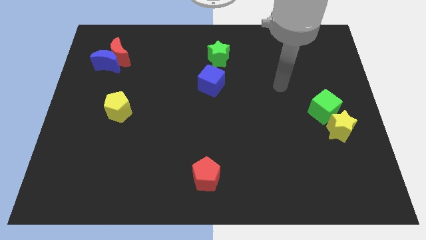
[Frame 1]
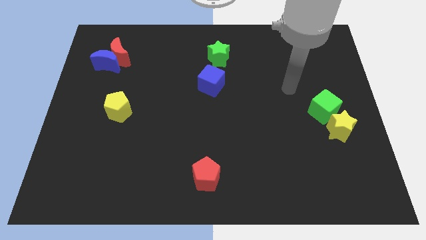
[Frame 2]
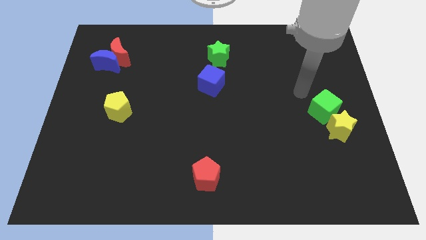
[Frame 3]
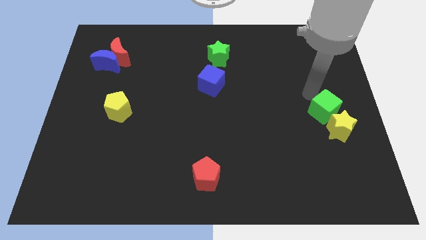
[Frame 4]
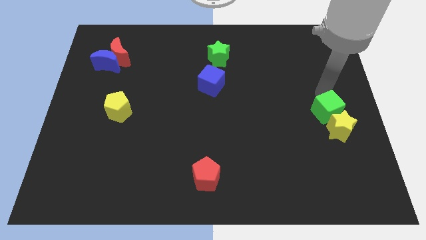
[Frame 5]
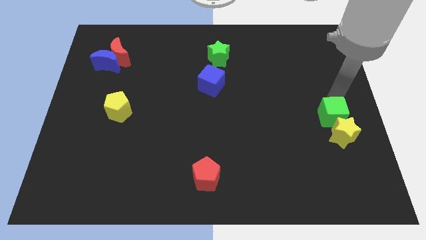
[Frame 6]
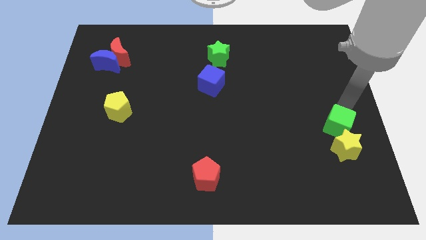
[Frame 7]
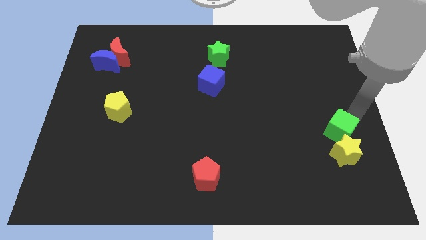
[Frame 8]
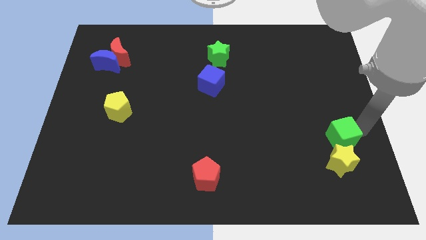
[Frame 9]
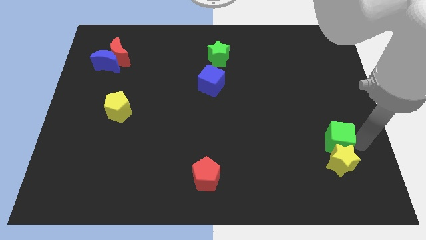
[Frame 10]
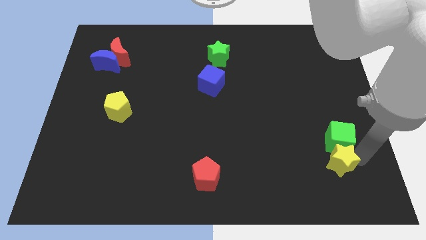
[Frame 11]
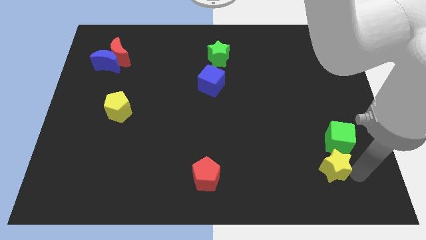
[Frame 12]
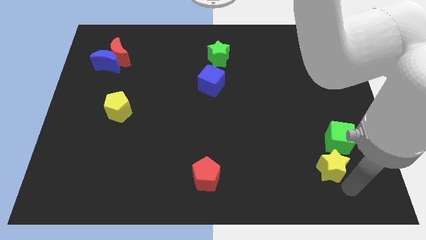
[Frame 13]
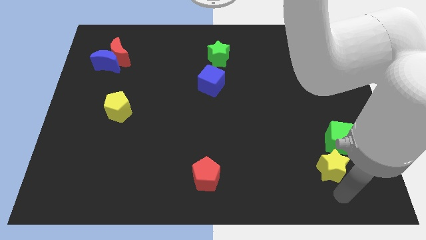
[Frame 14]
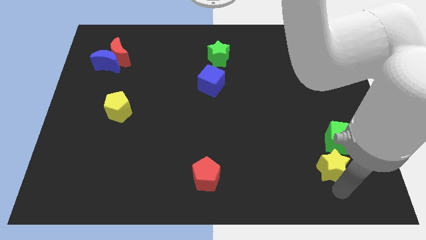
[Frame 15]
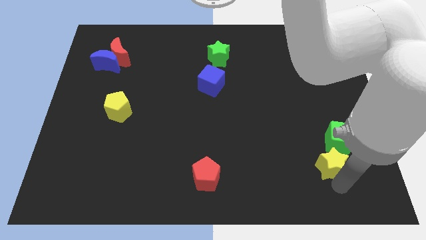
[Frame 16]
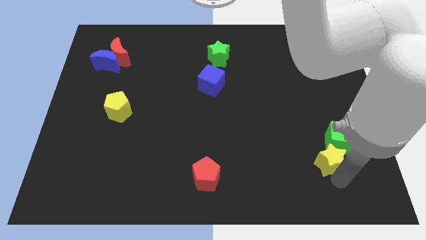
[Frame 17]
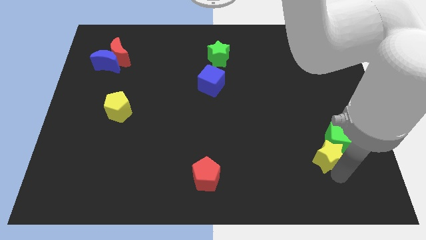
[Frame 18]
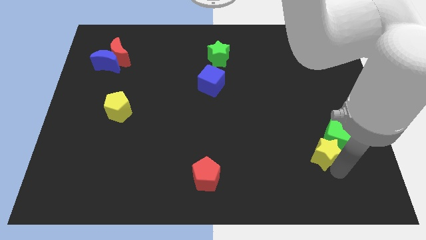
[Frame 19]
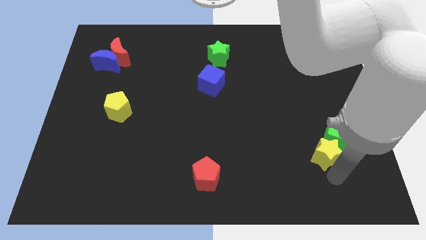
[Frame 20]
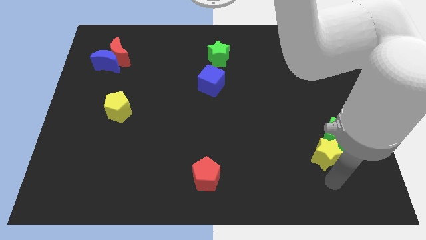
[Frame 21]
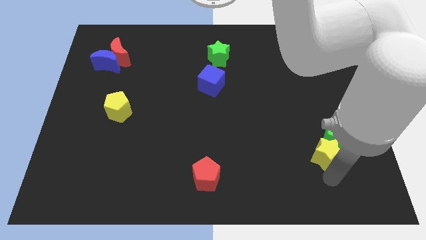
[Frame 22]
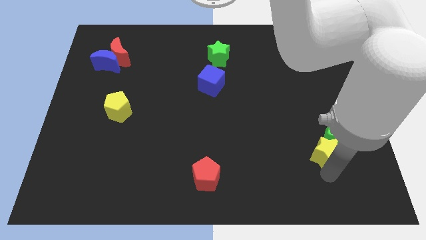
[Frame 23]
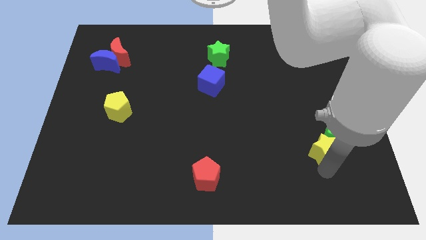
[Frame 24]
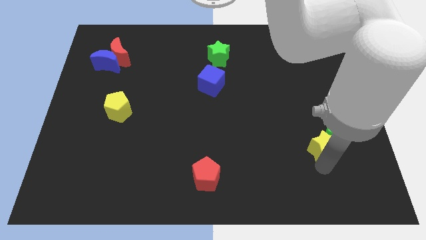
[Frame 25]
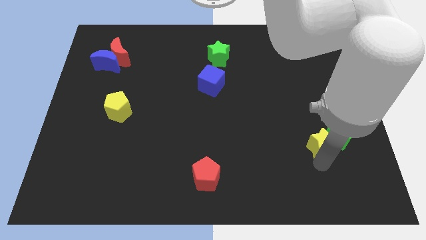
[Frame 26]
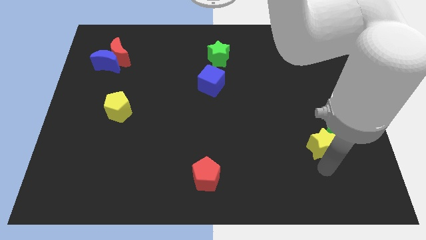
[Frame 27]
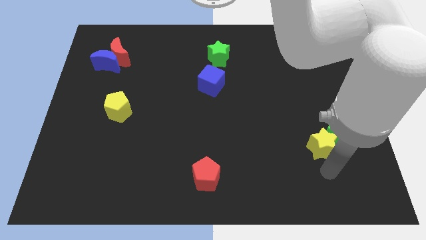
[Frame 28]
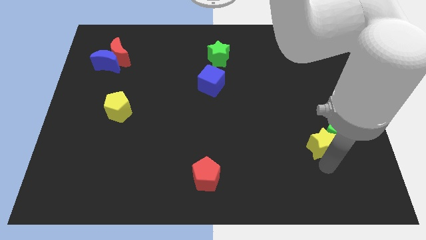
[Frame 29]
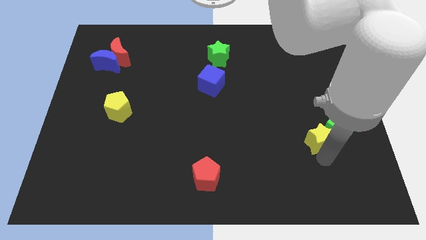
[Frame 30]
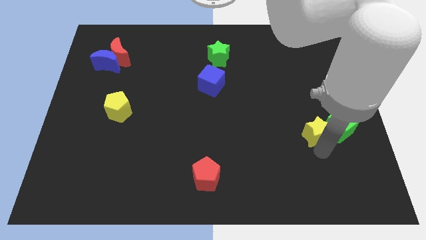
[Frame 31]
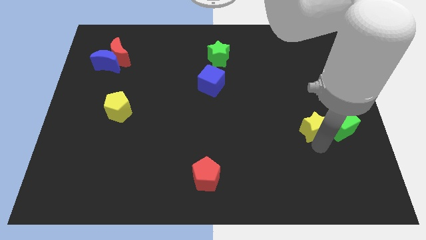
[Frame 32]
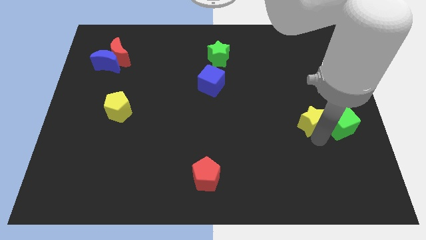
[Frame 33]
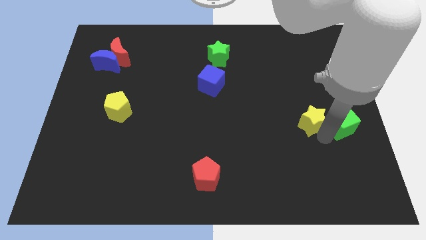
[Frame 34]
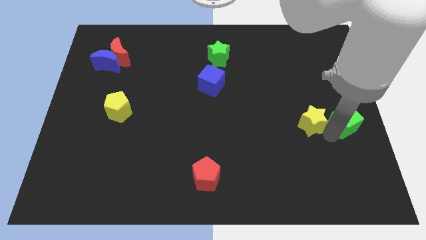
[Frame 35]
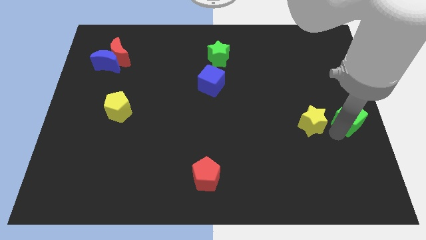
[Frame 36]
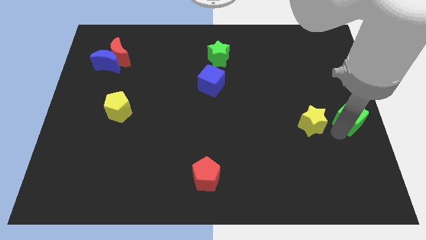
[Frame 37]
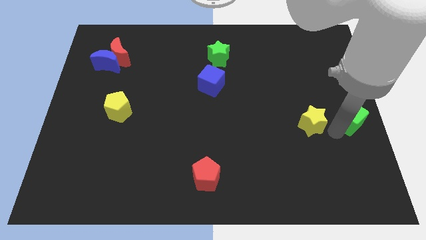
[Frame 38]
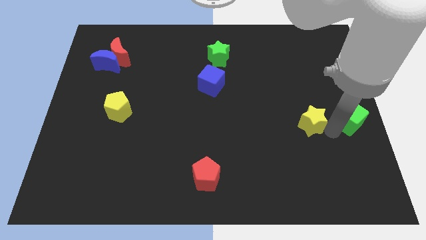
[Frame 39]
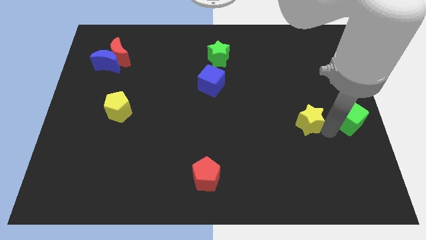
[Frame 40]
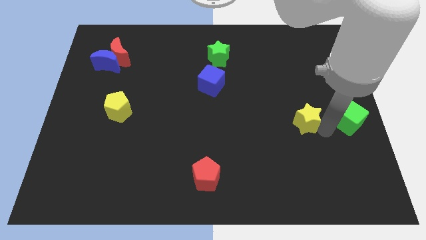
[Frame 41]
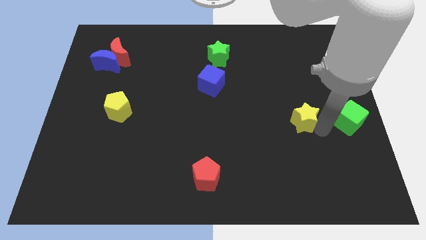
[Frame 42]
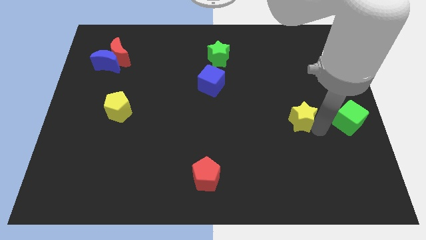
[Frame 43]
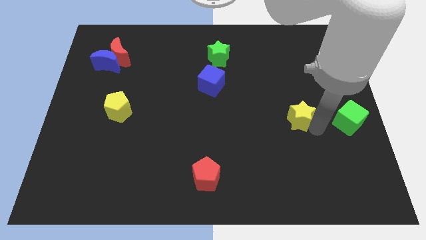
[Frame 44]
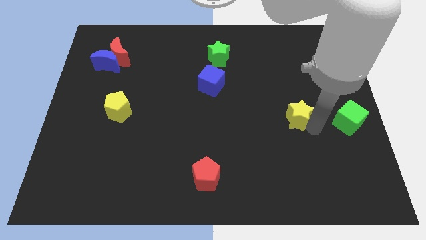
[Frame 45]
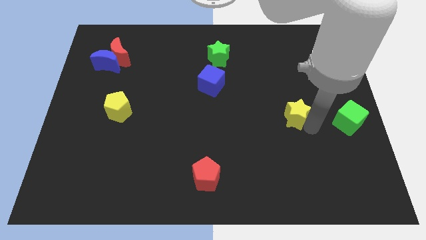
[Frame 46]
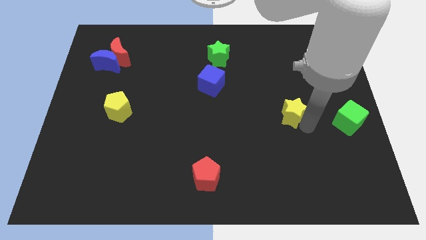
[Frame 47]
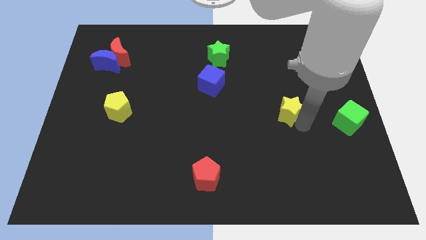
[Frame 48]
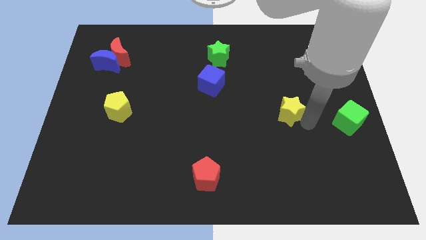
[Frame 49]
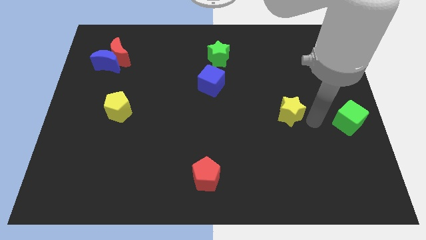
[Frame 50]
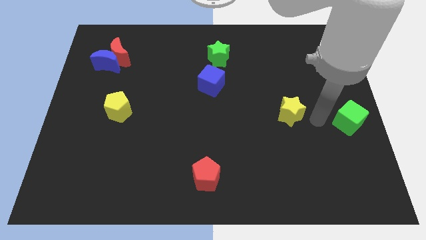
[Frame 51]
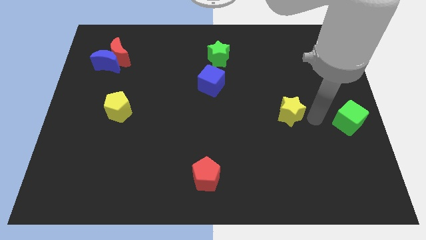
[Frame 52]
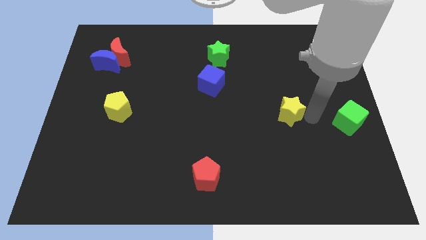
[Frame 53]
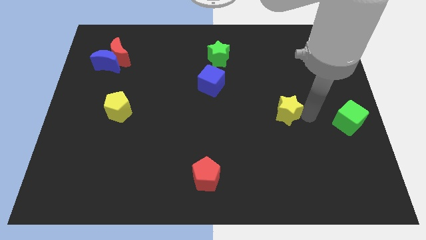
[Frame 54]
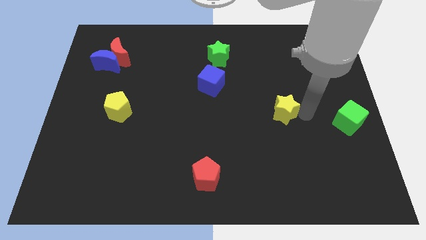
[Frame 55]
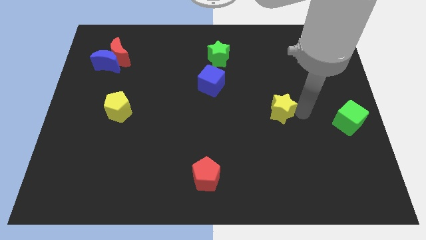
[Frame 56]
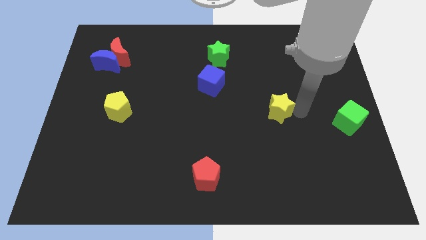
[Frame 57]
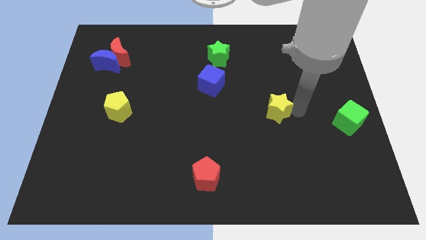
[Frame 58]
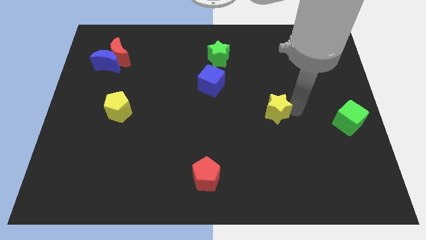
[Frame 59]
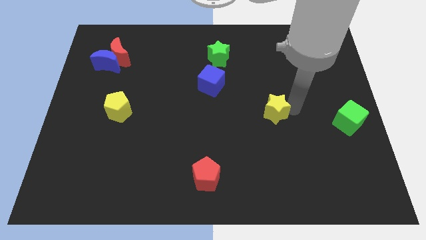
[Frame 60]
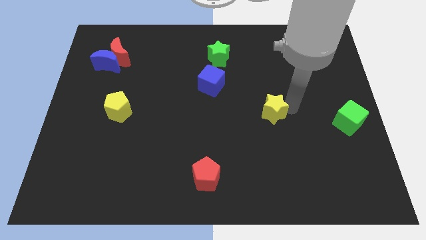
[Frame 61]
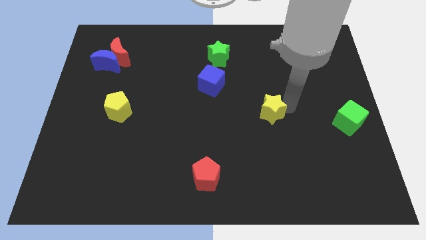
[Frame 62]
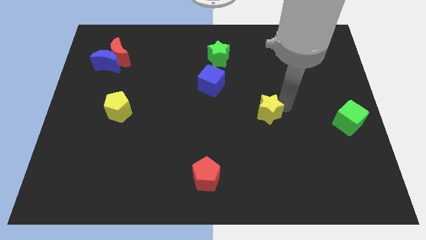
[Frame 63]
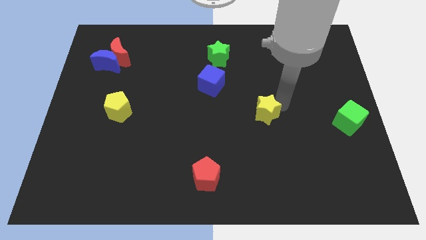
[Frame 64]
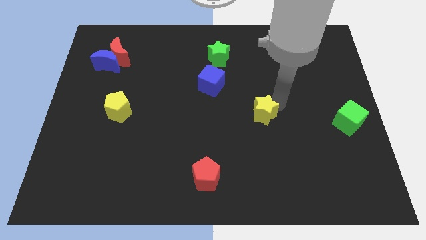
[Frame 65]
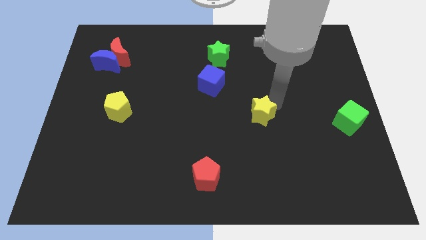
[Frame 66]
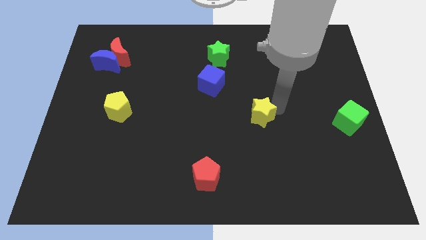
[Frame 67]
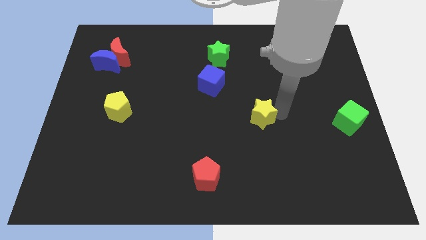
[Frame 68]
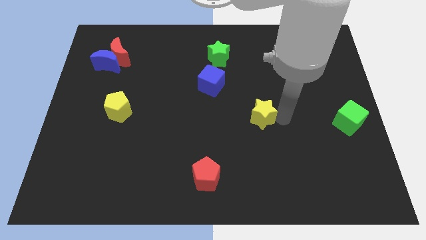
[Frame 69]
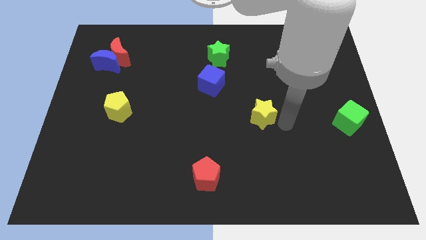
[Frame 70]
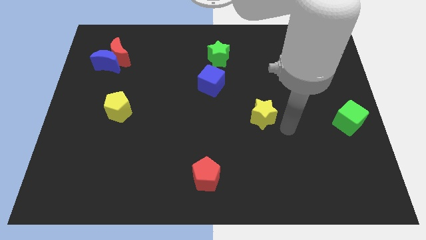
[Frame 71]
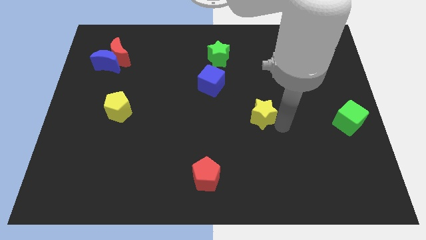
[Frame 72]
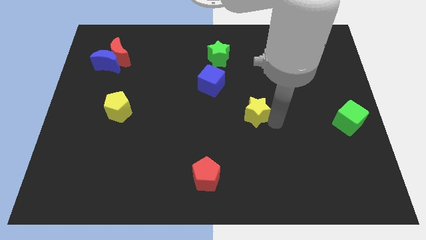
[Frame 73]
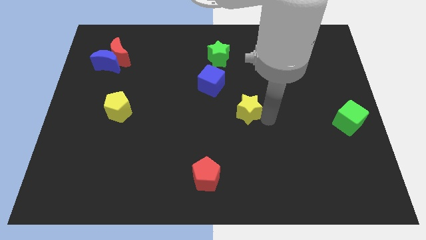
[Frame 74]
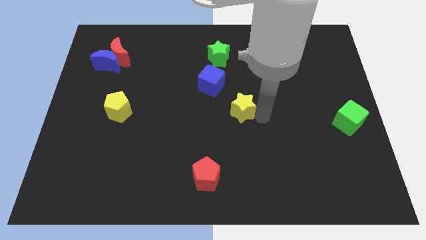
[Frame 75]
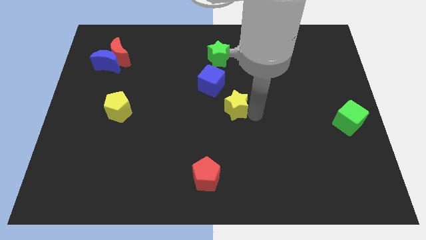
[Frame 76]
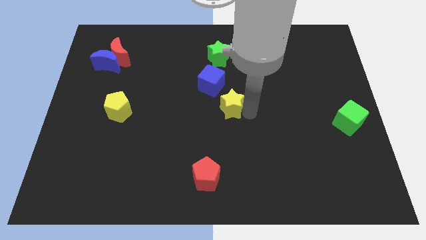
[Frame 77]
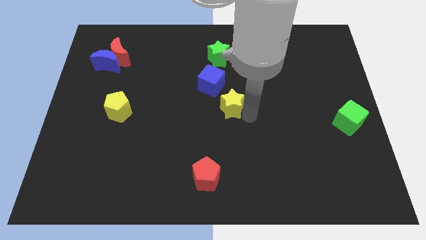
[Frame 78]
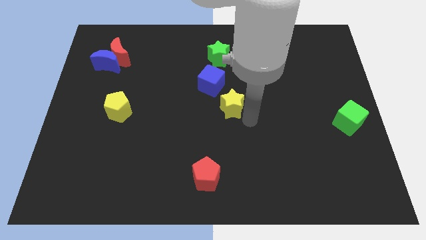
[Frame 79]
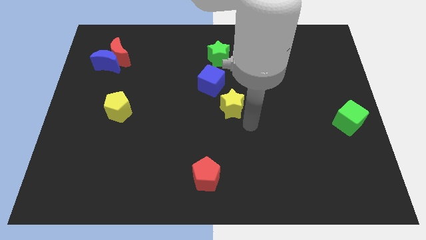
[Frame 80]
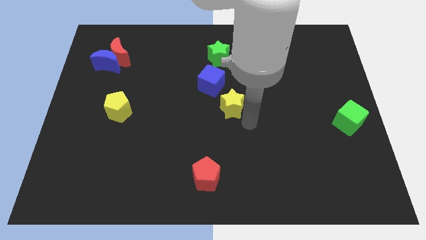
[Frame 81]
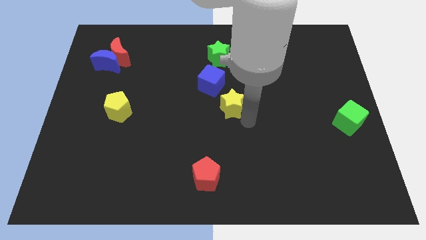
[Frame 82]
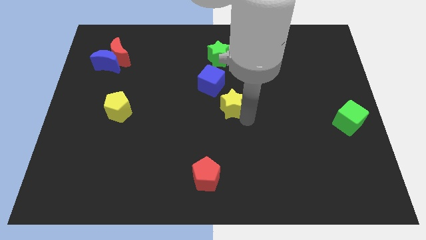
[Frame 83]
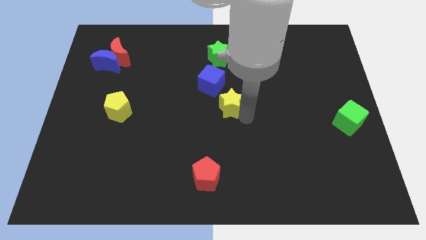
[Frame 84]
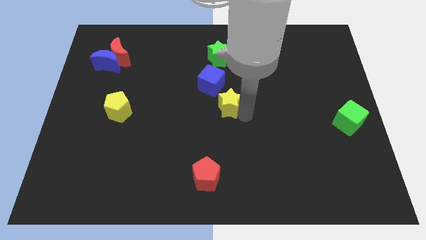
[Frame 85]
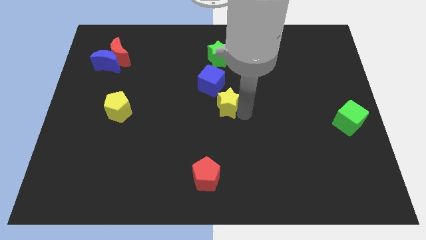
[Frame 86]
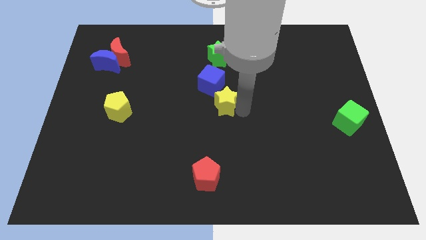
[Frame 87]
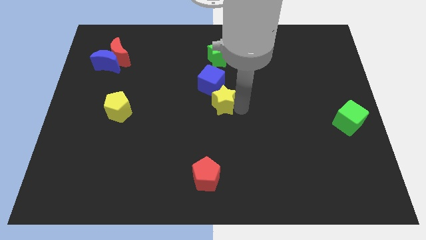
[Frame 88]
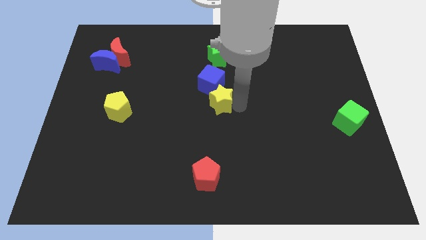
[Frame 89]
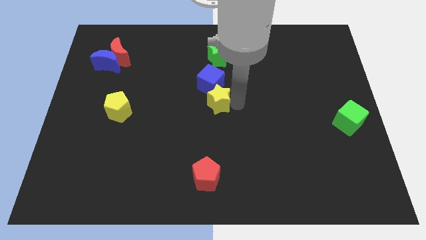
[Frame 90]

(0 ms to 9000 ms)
push the yellow star next to the blue cube
